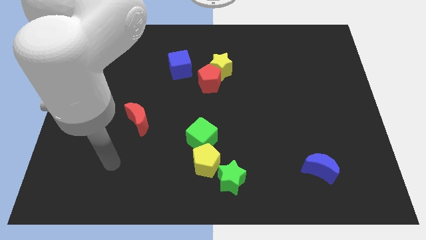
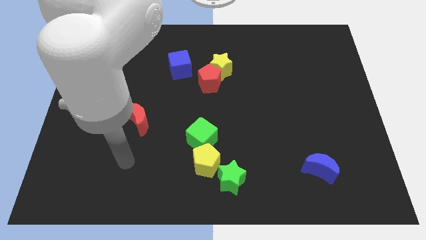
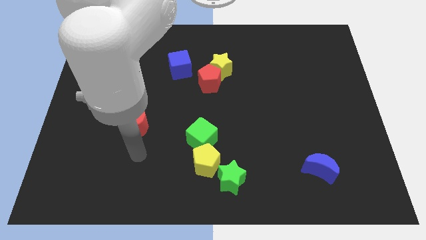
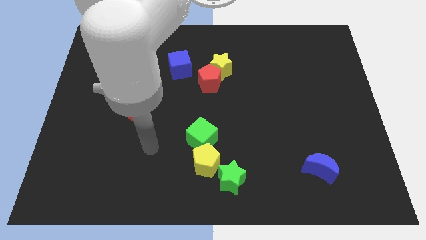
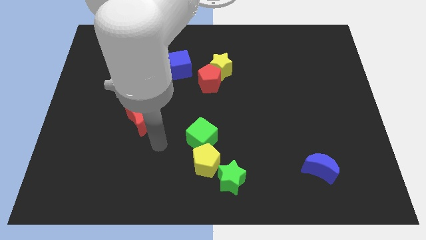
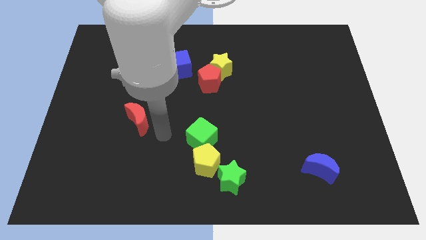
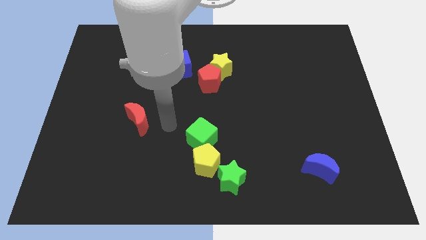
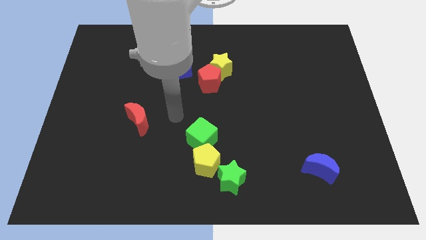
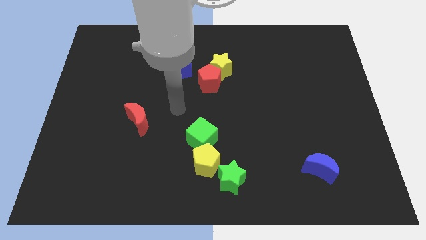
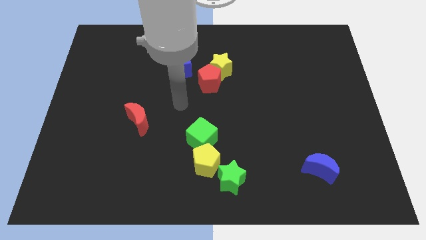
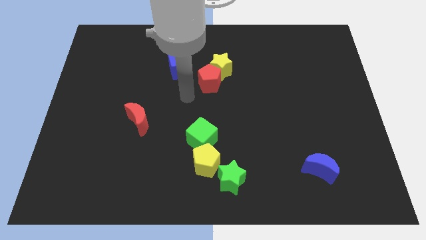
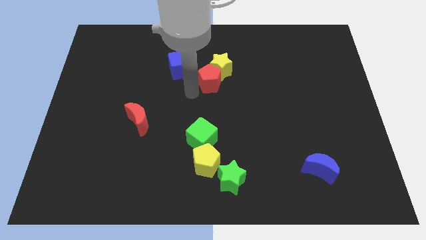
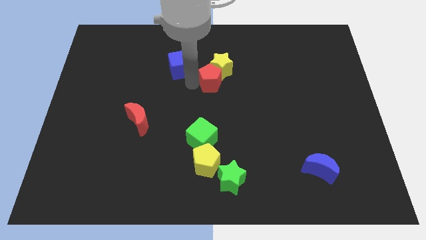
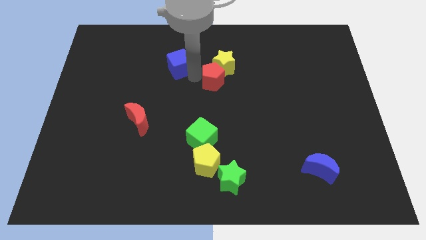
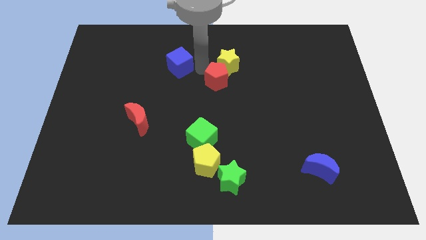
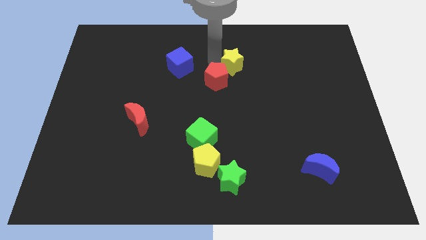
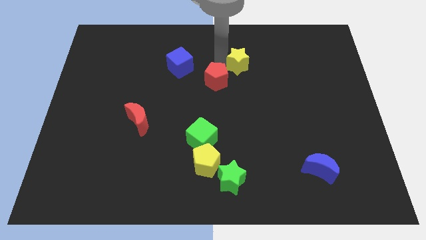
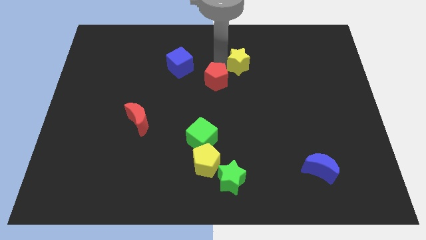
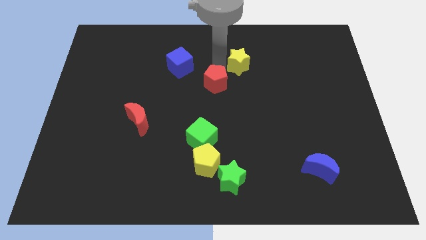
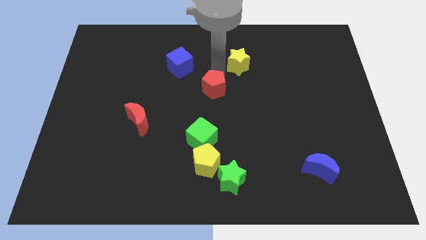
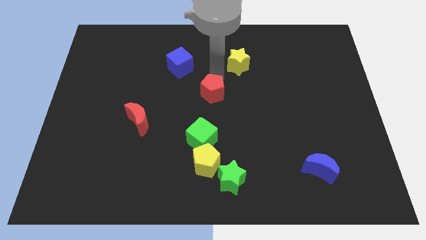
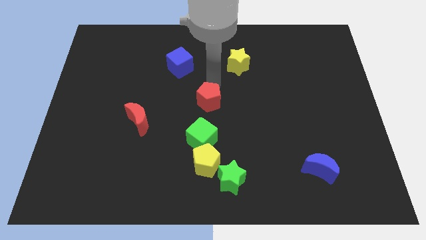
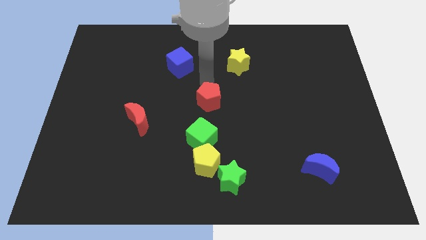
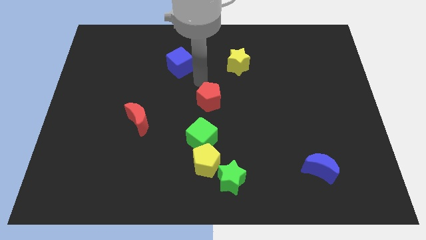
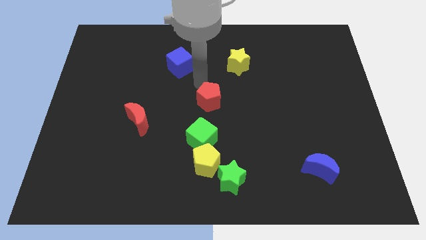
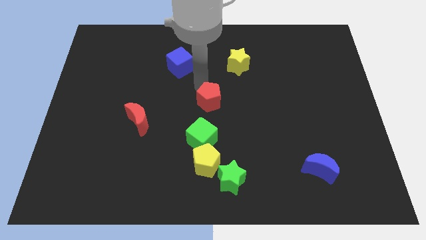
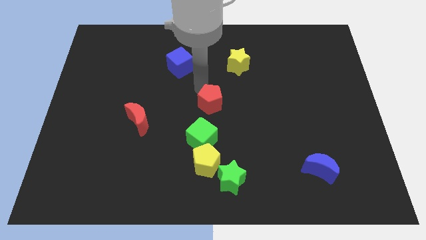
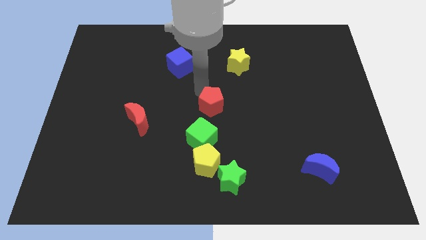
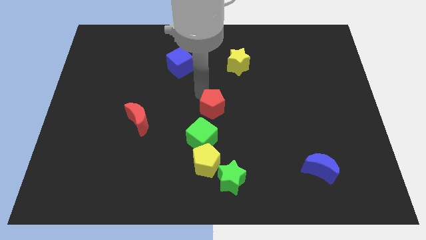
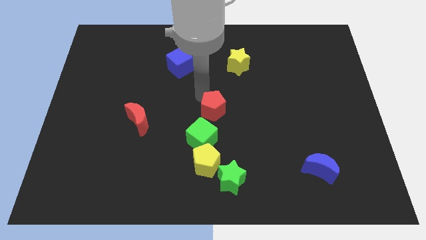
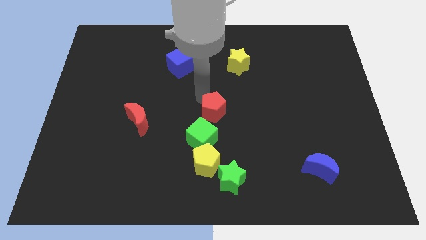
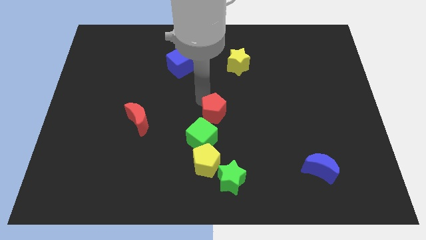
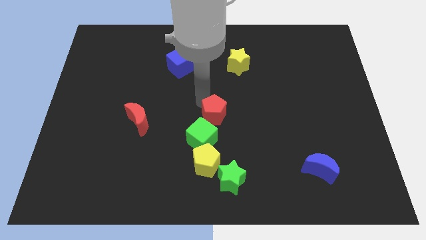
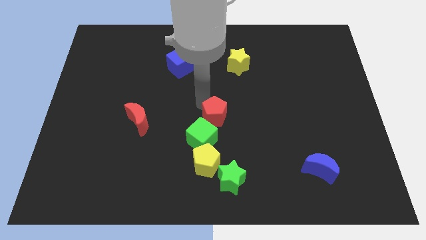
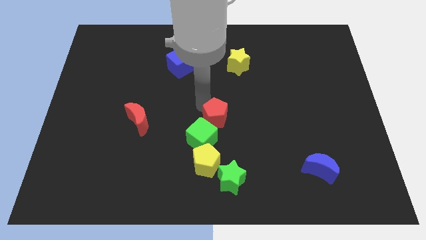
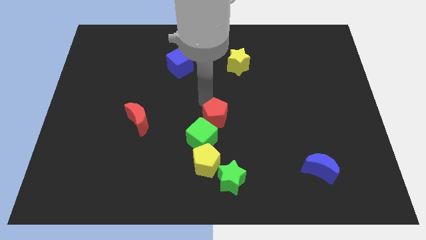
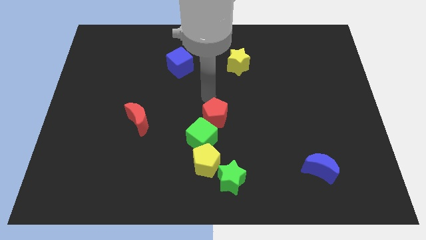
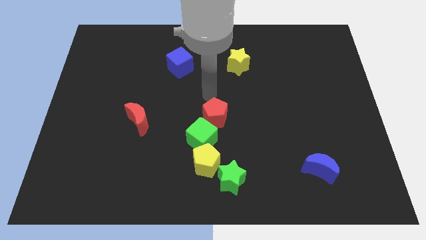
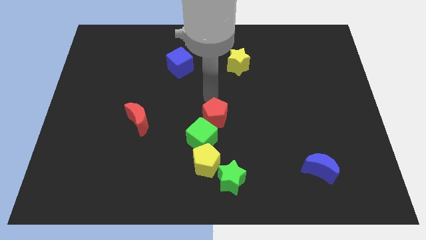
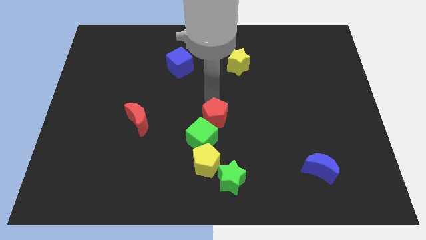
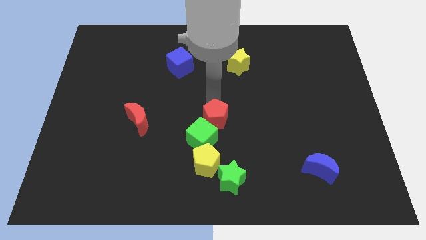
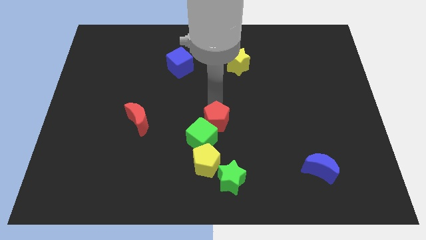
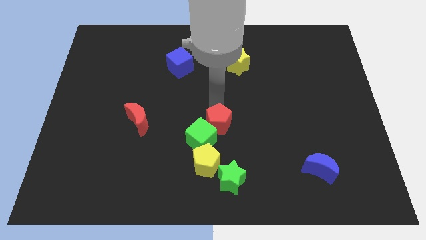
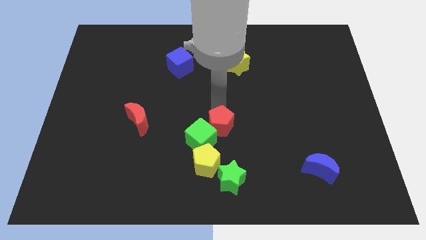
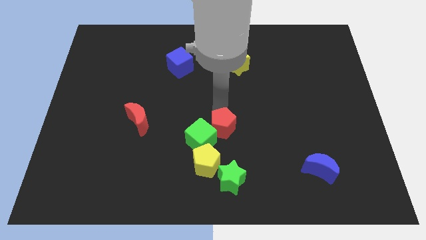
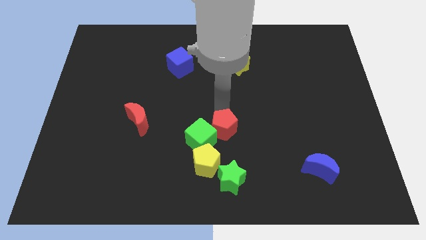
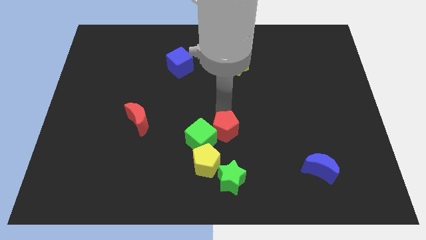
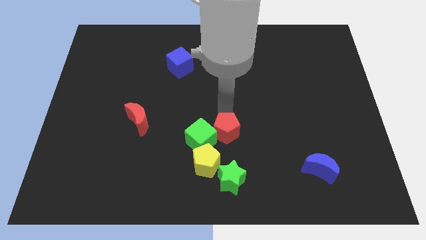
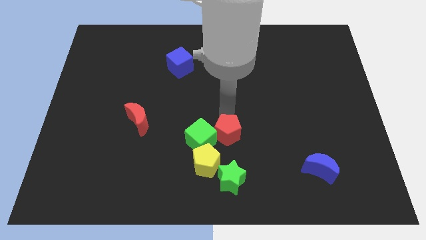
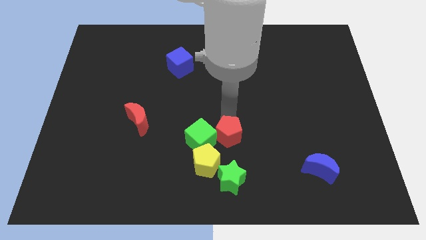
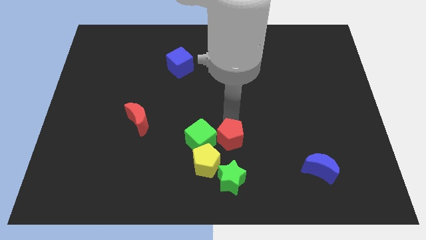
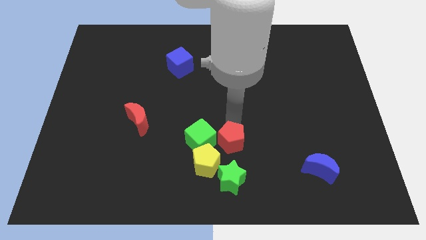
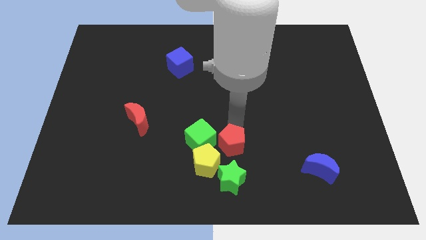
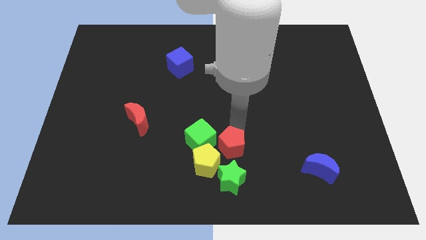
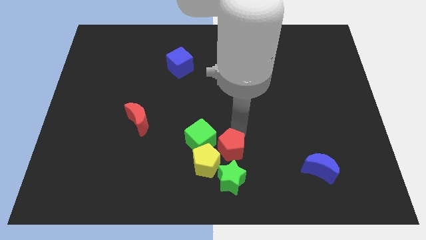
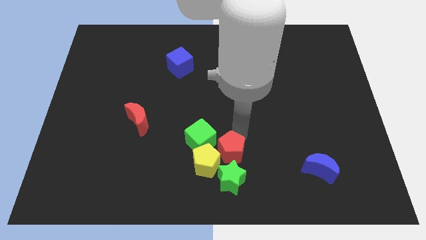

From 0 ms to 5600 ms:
put the red pentagon towards the yellow pentagon

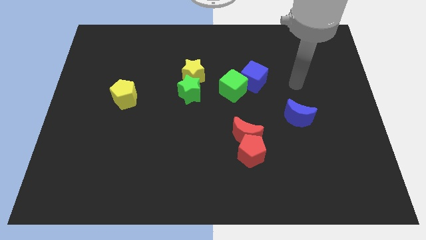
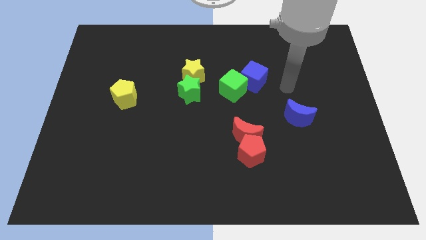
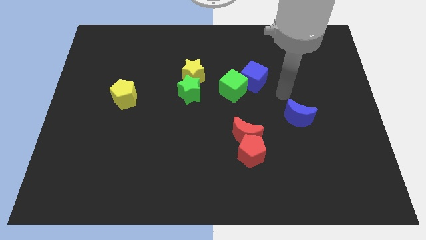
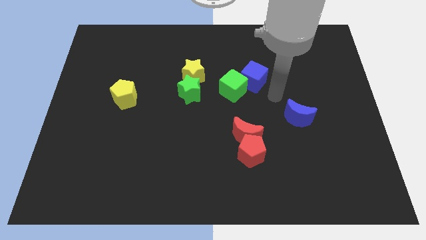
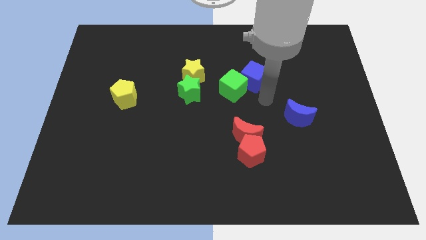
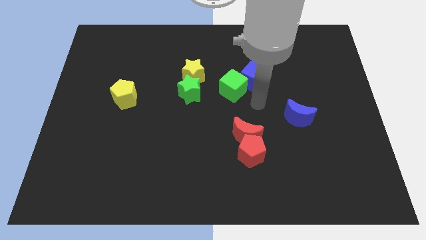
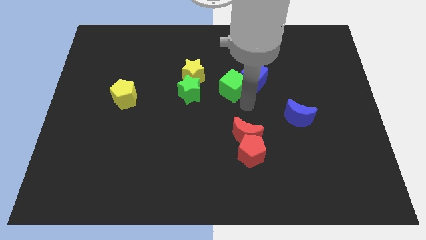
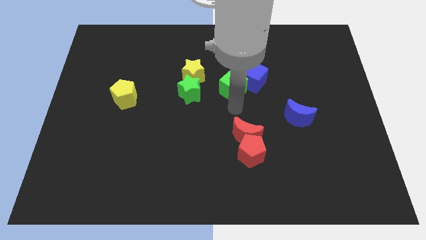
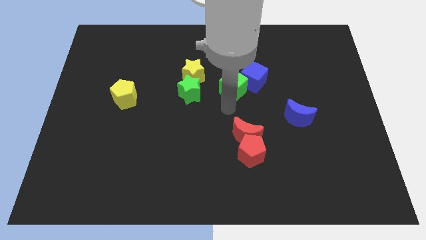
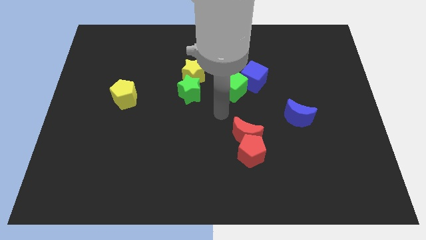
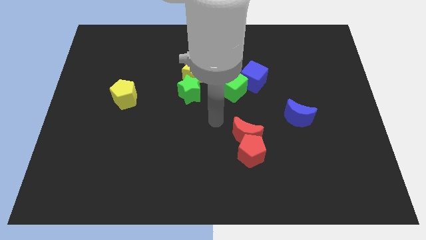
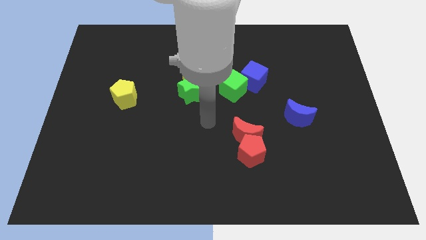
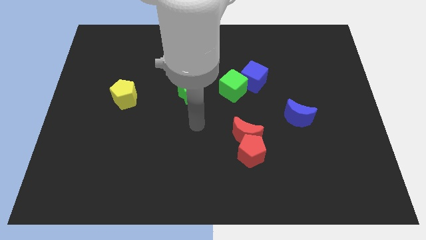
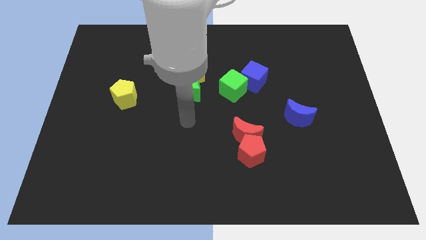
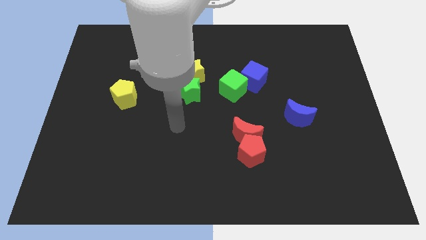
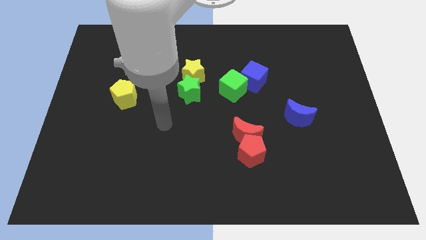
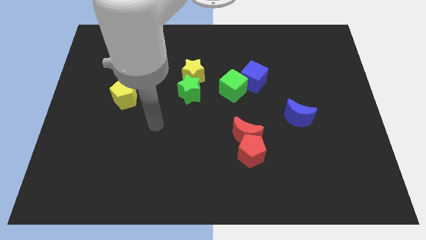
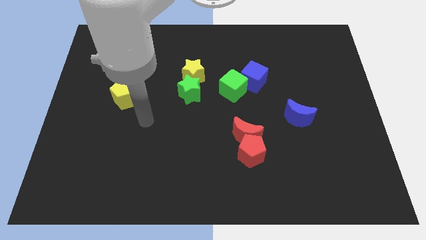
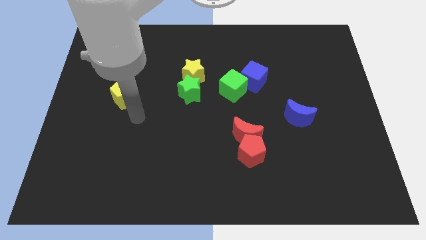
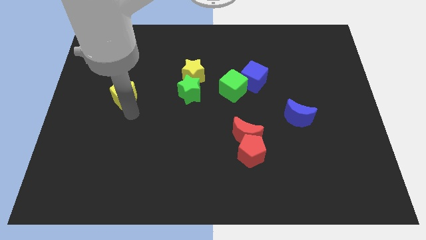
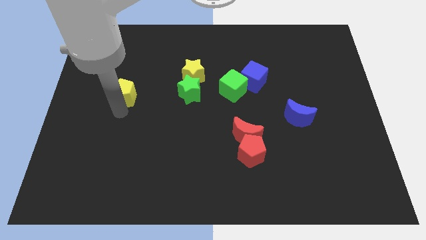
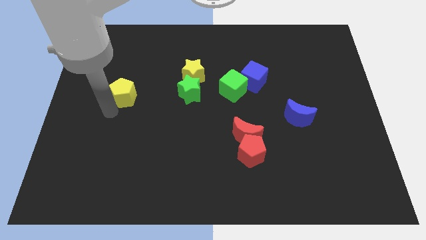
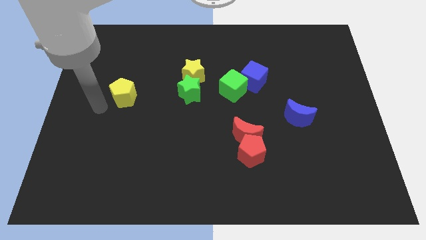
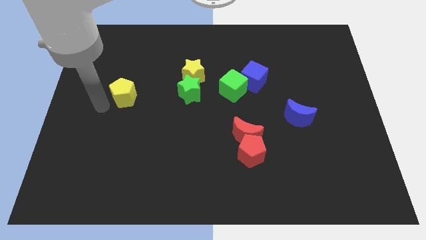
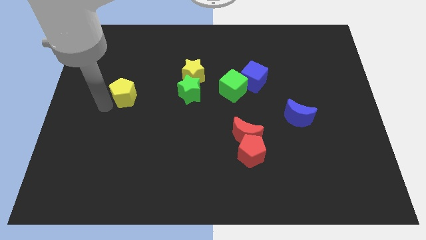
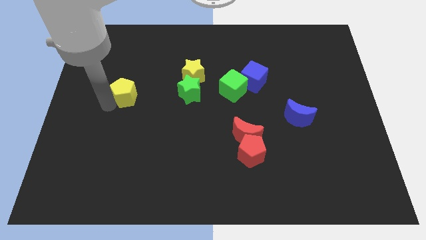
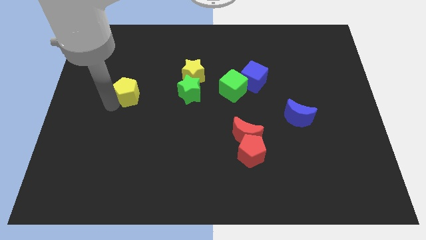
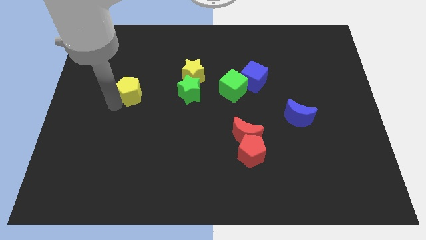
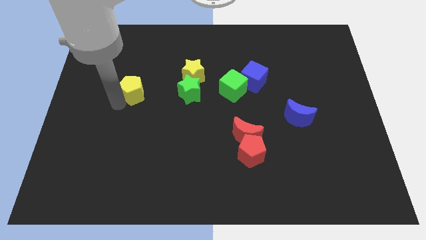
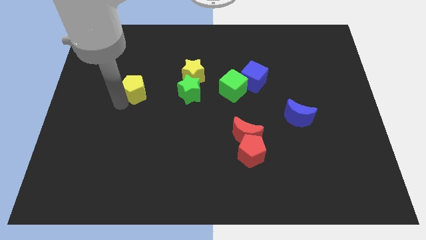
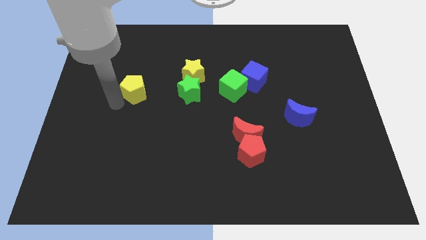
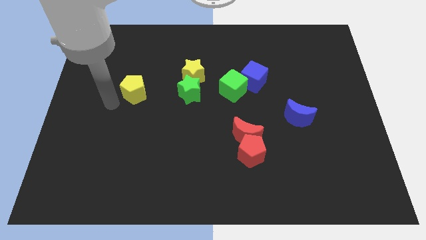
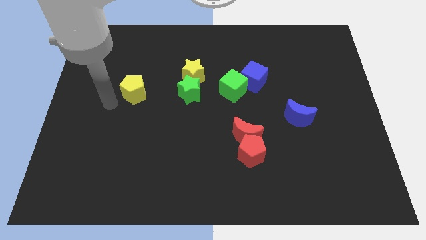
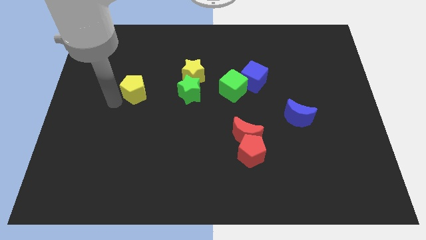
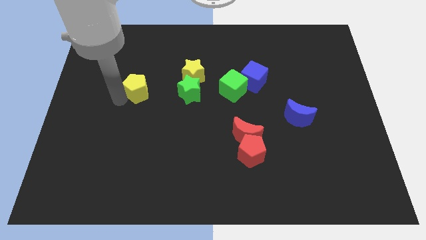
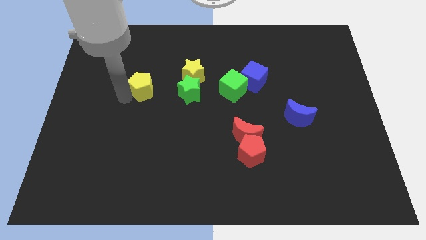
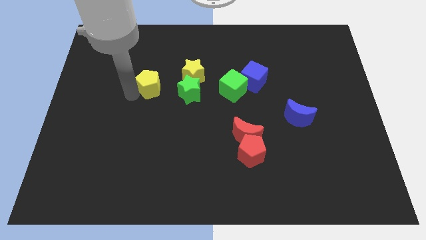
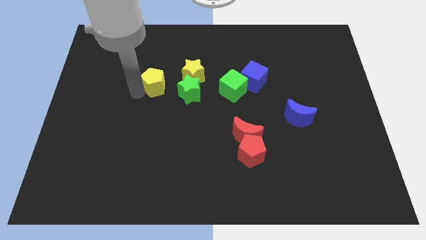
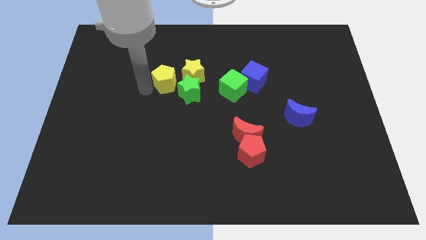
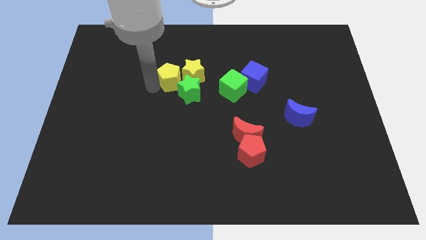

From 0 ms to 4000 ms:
slide the yellow pentagon towards the yellow star
